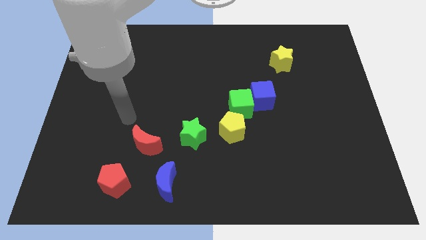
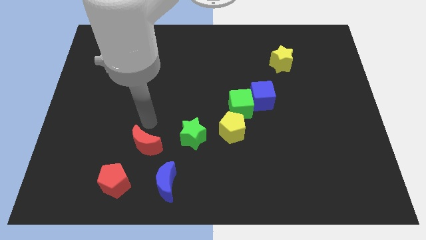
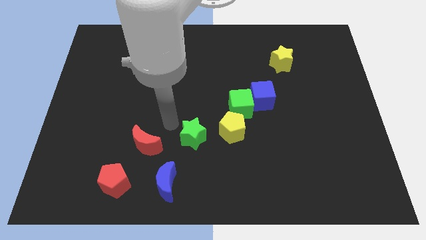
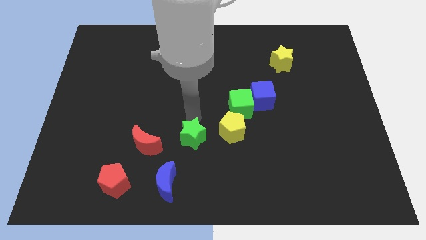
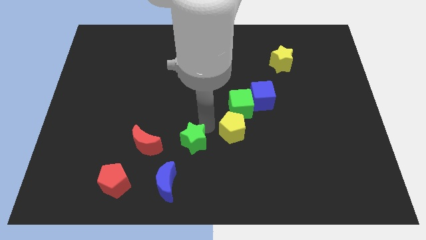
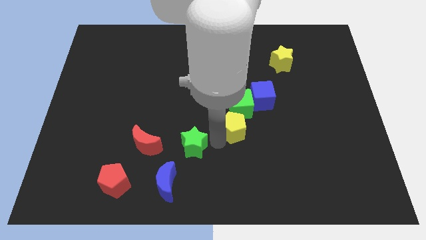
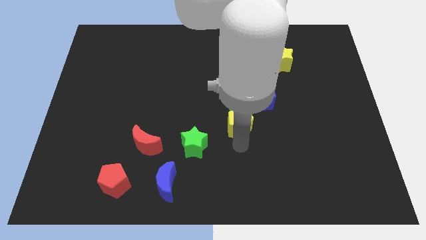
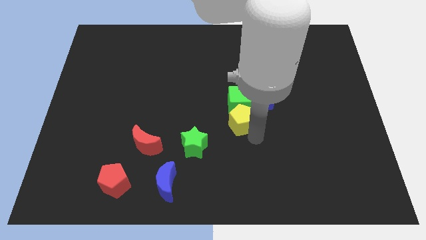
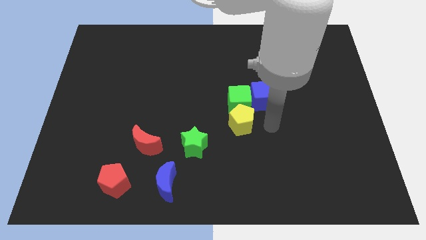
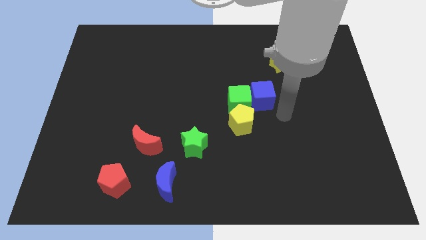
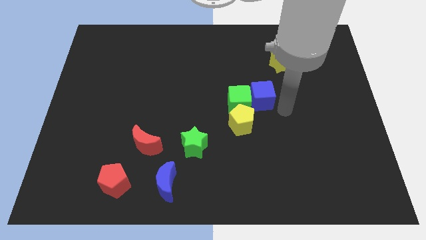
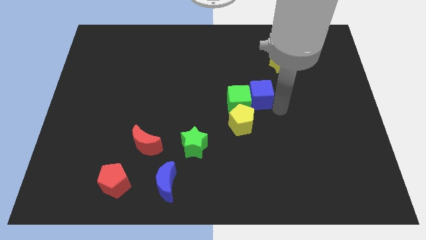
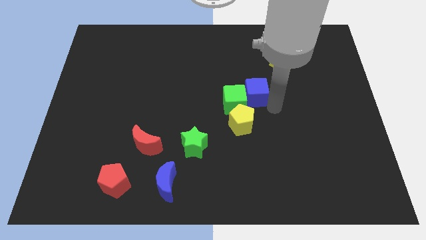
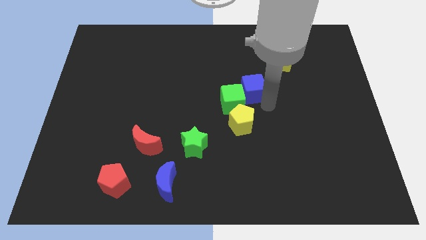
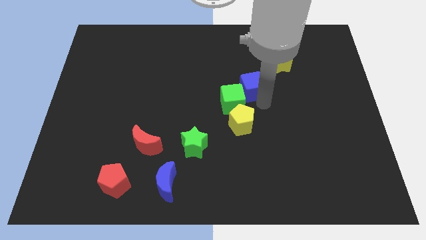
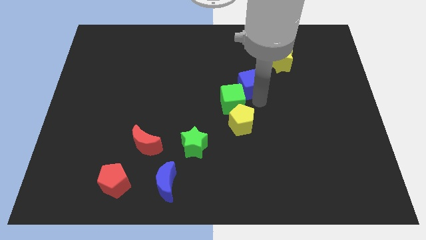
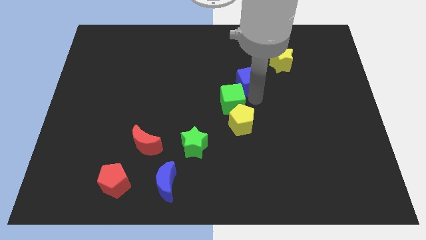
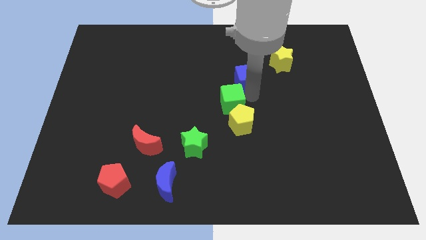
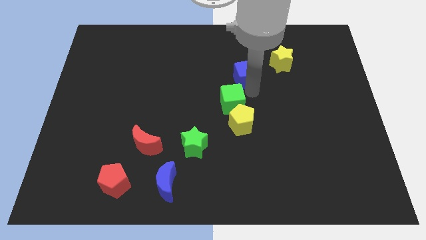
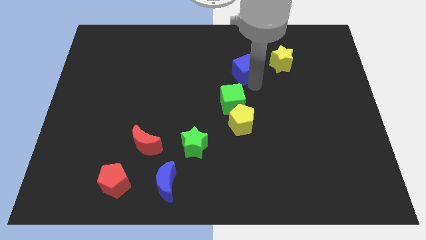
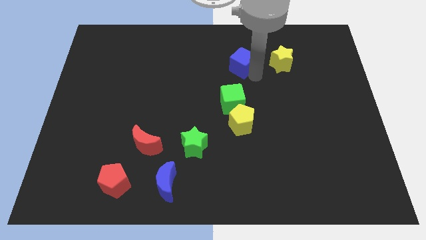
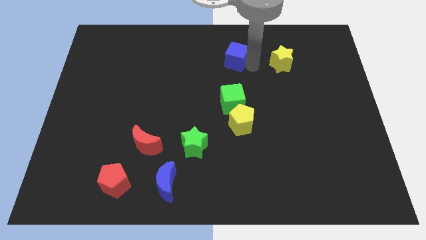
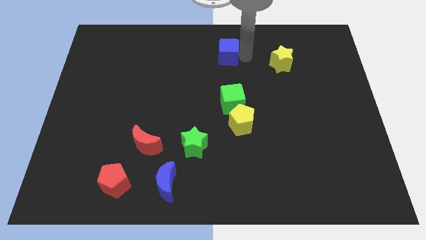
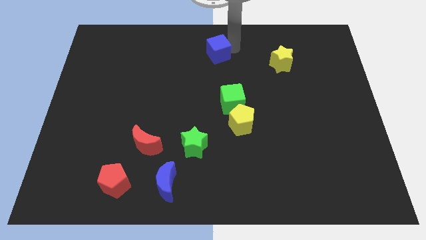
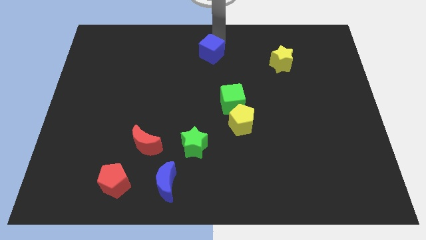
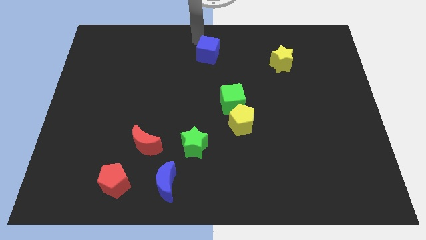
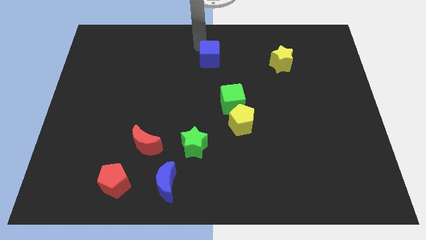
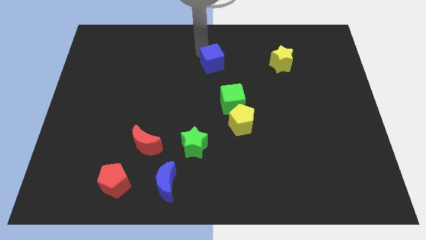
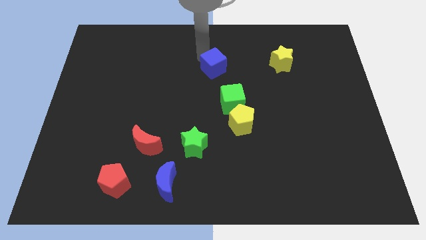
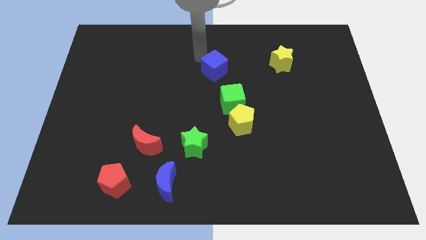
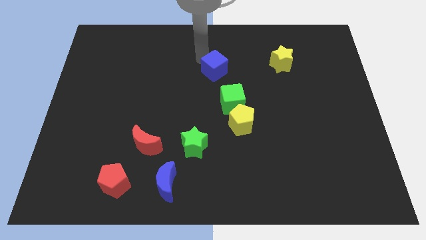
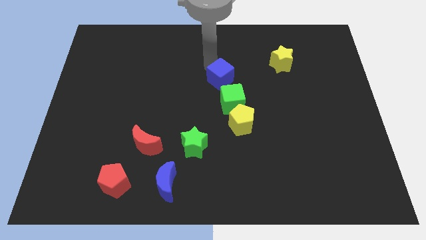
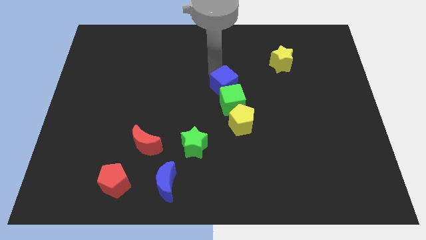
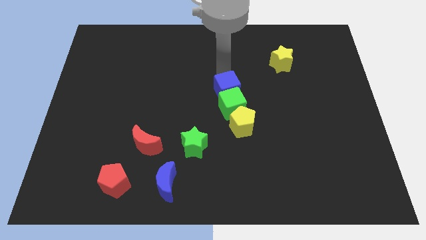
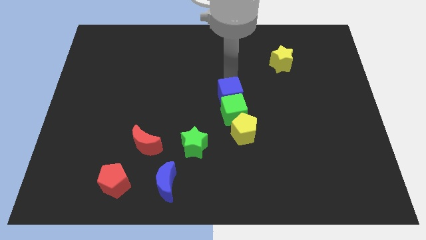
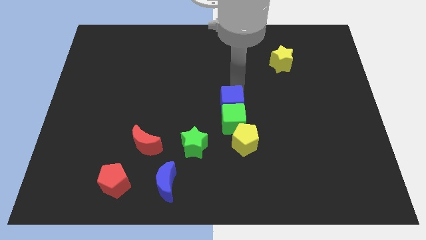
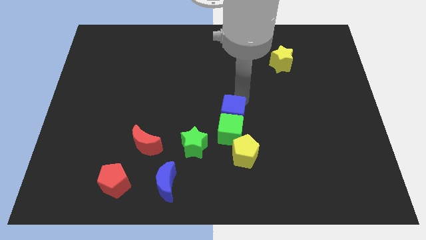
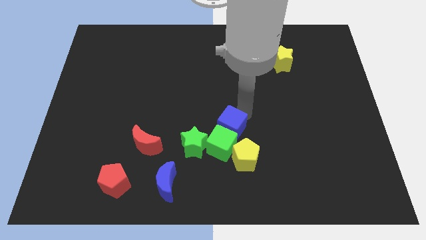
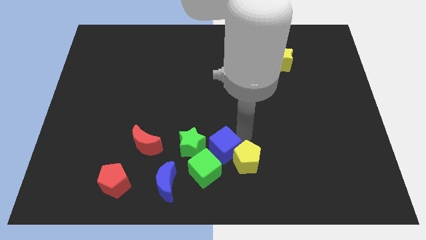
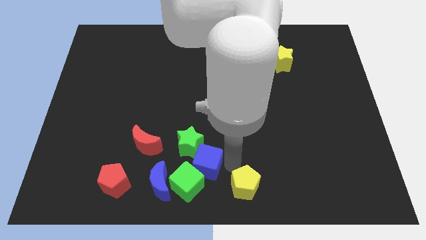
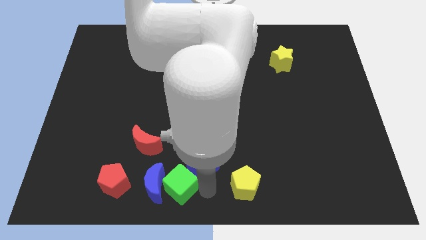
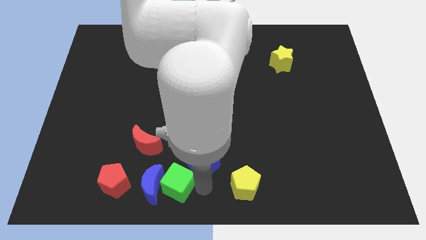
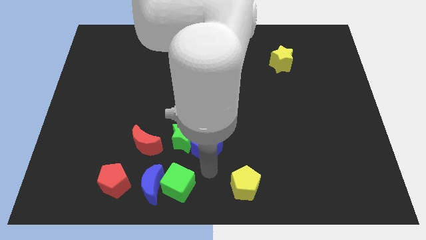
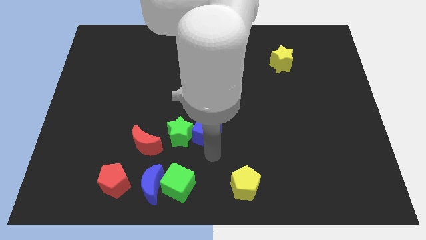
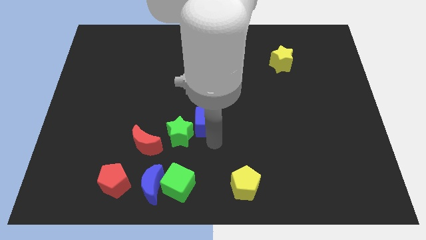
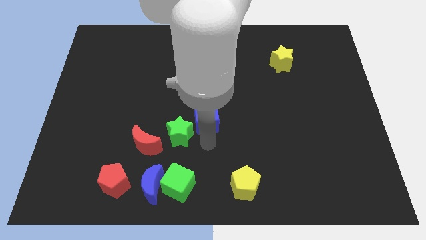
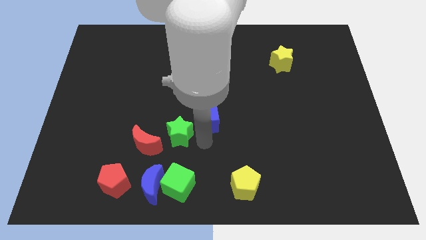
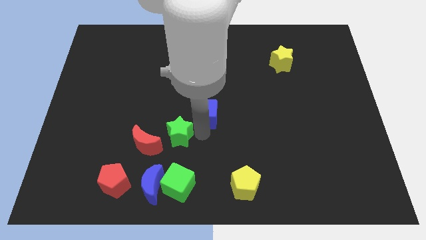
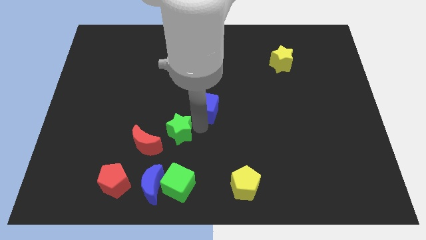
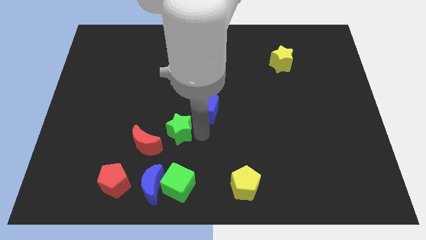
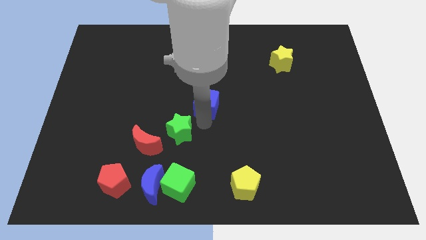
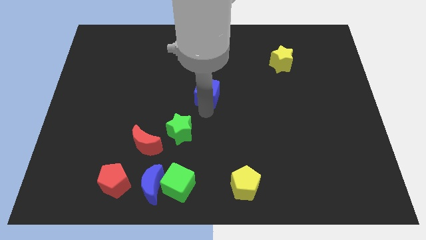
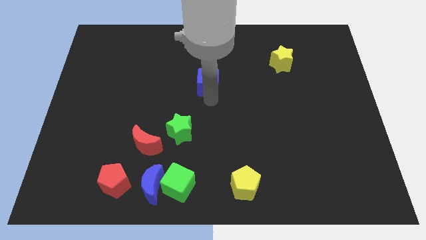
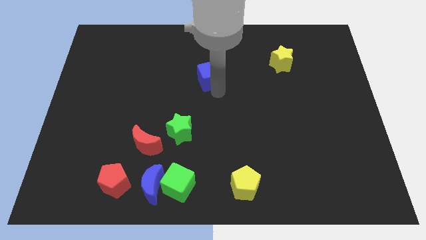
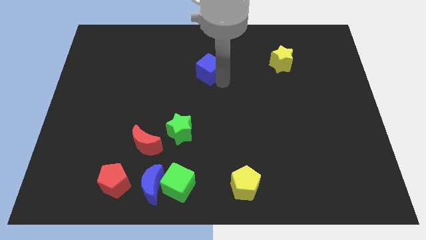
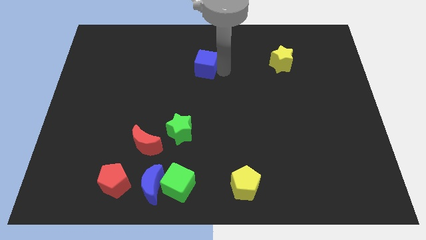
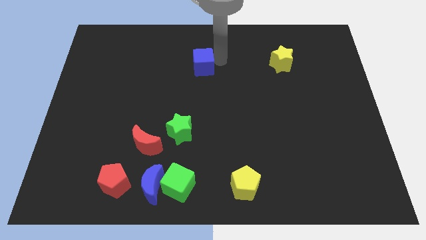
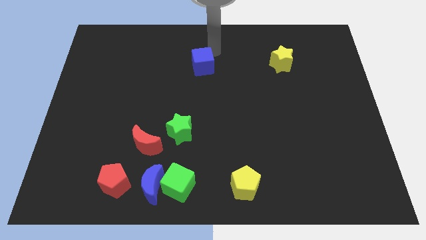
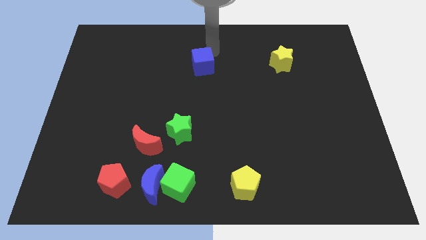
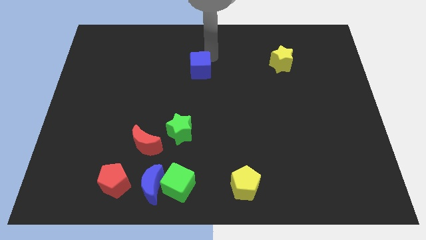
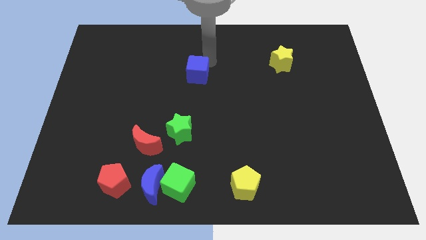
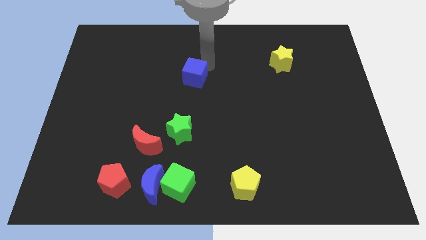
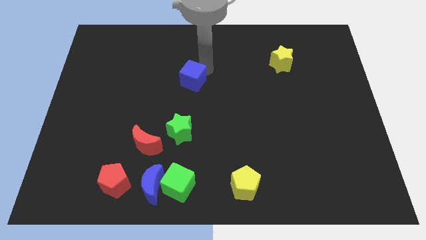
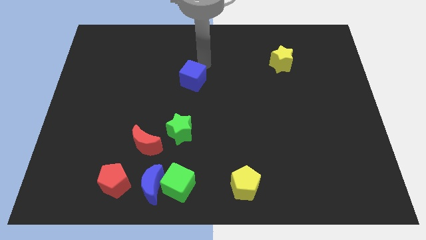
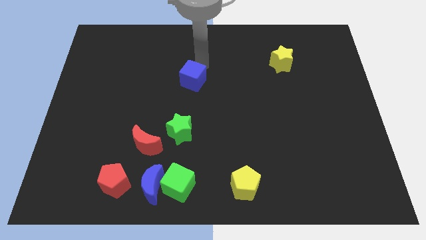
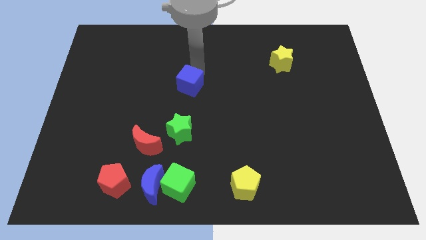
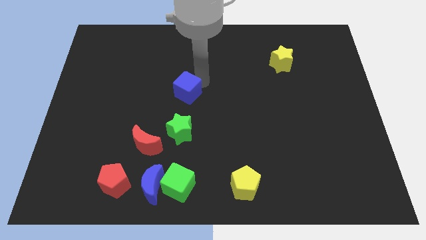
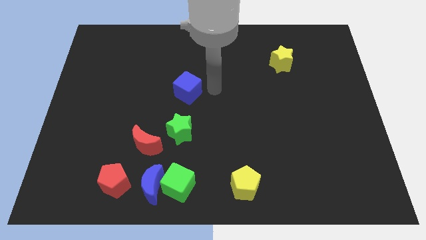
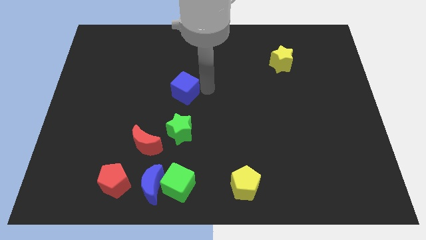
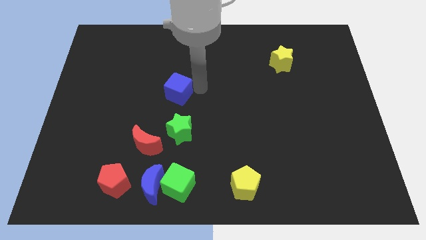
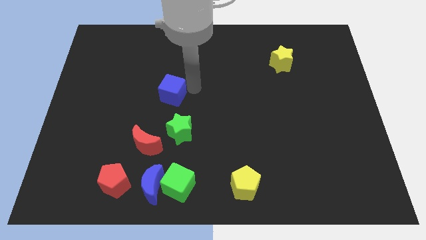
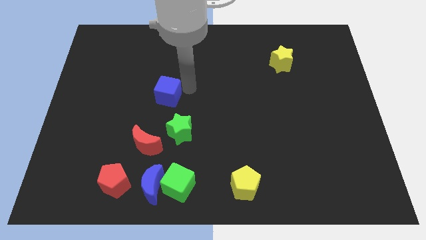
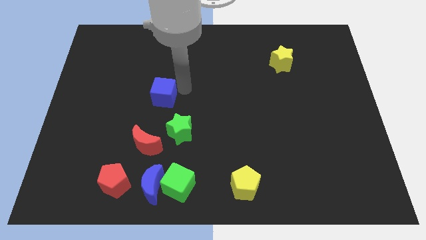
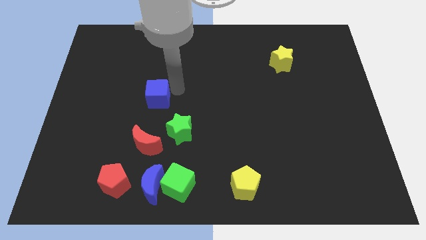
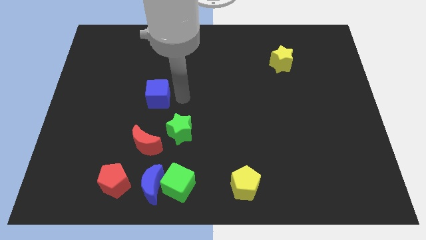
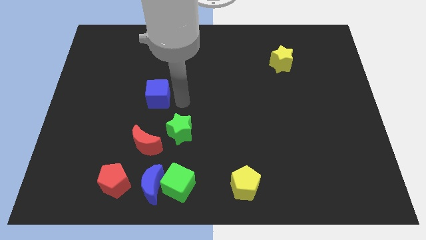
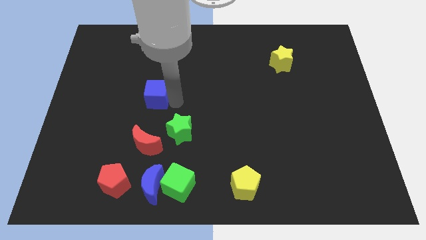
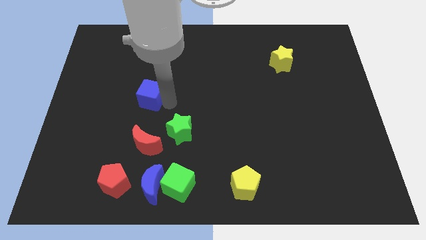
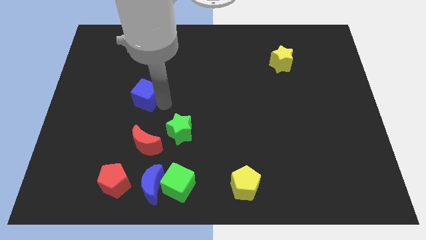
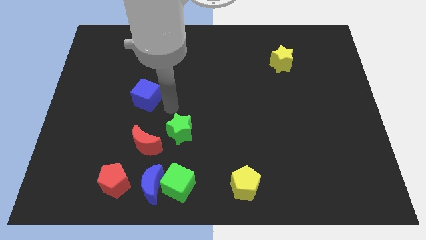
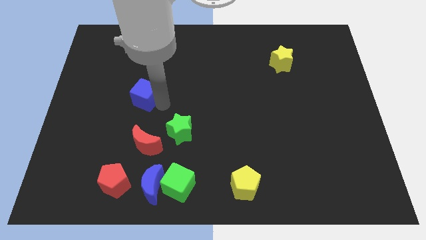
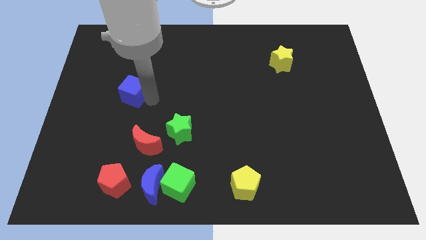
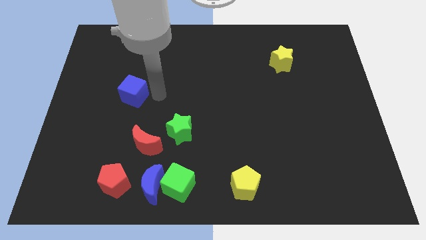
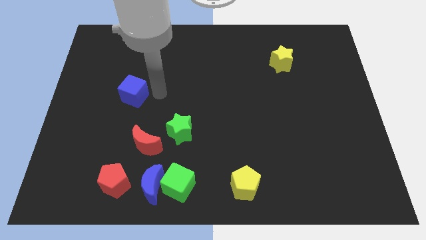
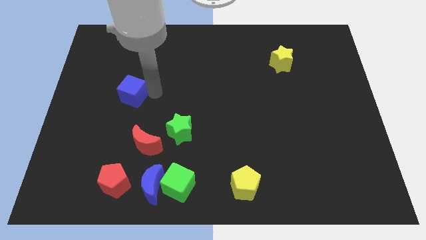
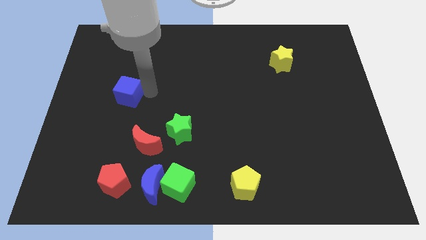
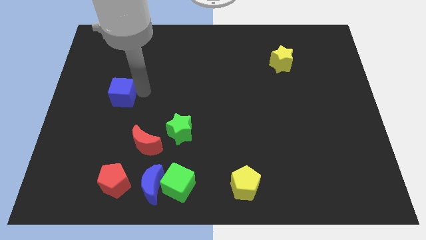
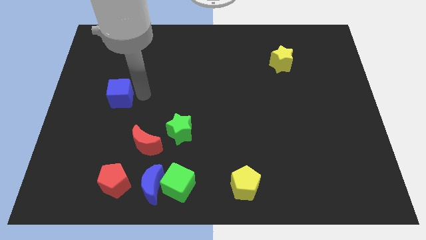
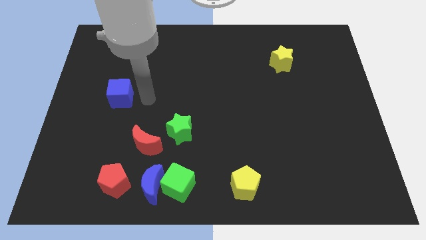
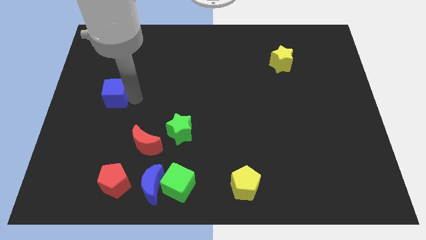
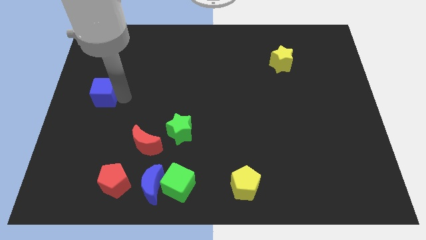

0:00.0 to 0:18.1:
push the blue cube to the center left
